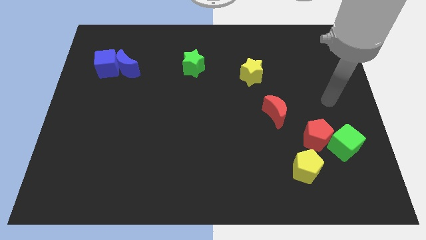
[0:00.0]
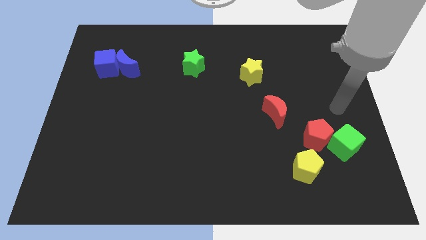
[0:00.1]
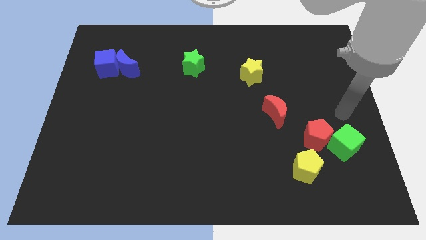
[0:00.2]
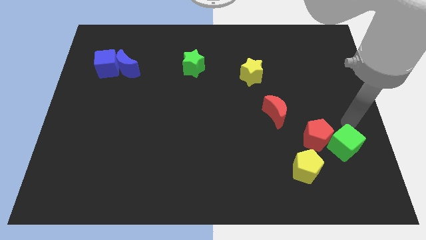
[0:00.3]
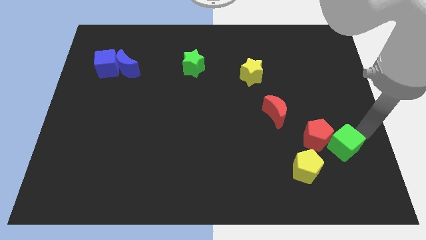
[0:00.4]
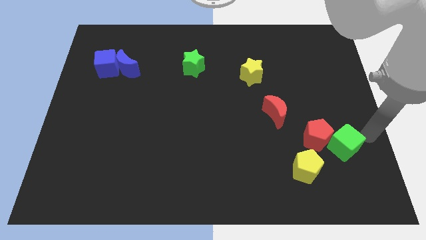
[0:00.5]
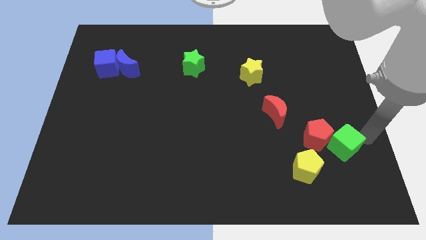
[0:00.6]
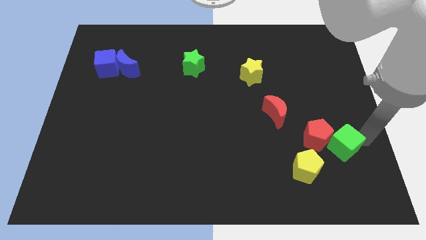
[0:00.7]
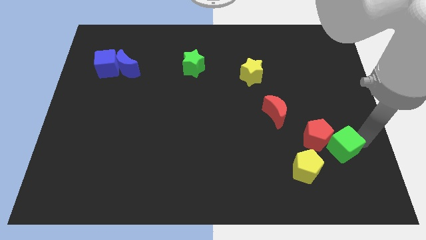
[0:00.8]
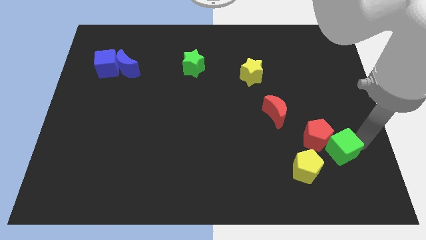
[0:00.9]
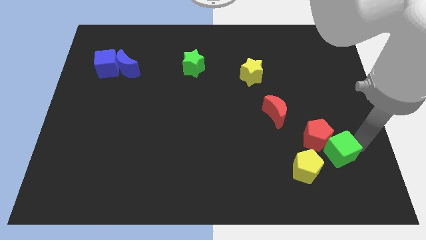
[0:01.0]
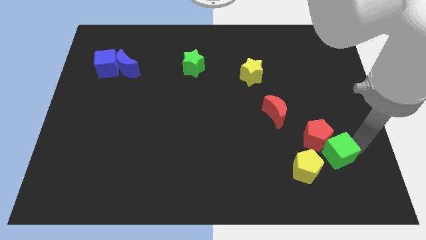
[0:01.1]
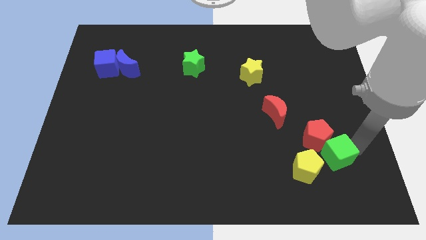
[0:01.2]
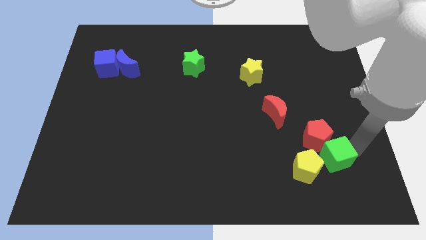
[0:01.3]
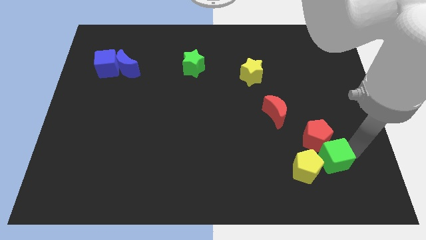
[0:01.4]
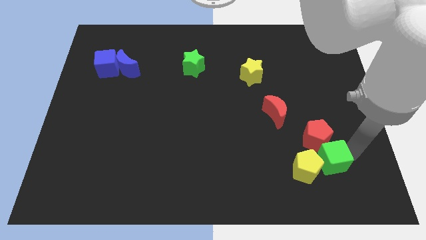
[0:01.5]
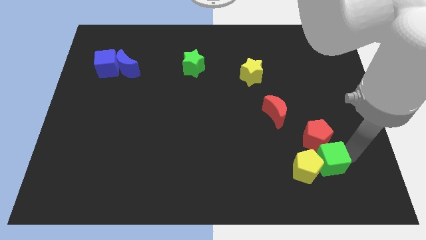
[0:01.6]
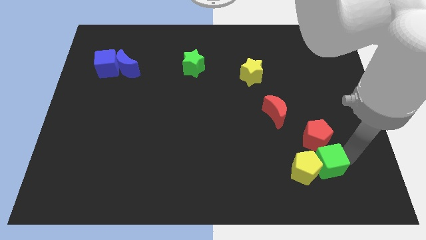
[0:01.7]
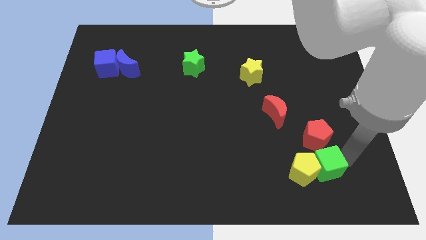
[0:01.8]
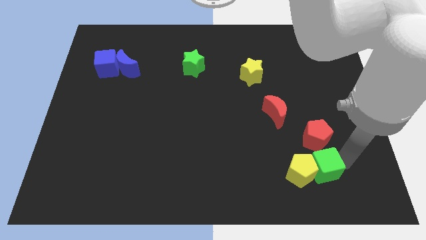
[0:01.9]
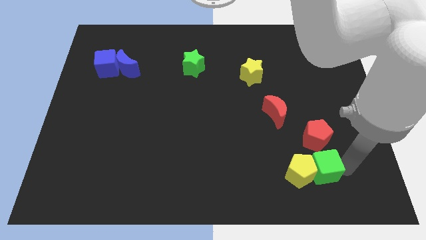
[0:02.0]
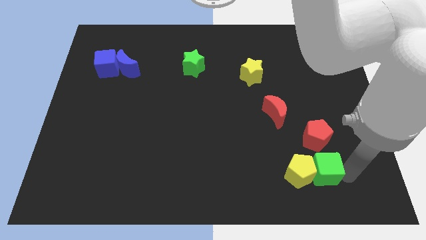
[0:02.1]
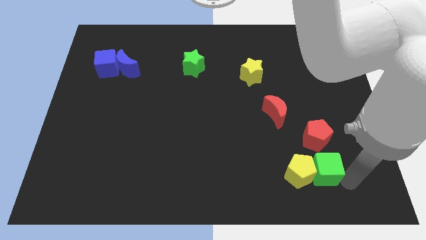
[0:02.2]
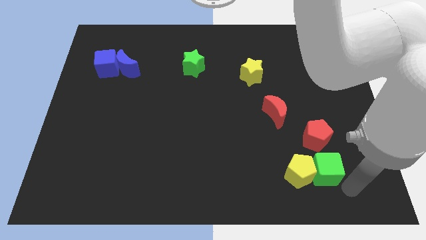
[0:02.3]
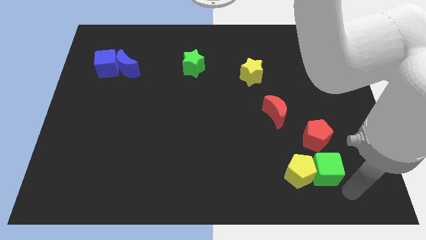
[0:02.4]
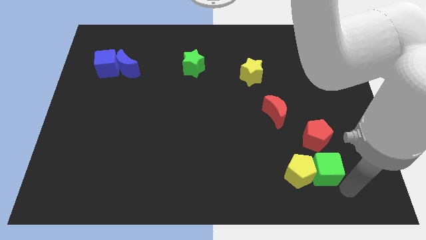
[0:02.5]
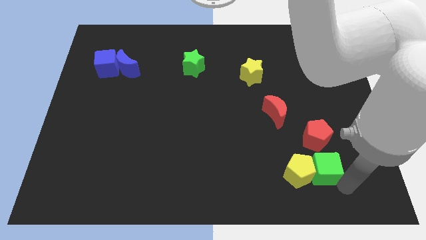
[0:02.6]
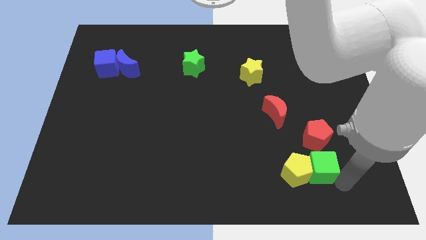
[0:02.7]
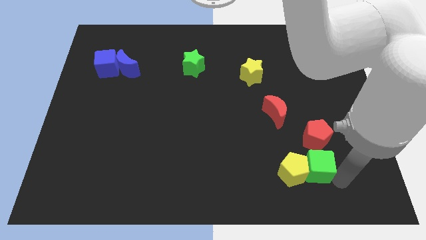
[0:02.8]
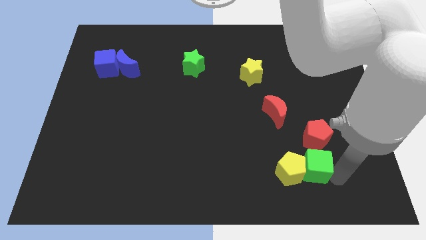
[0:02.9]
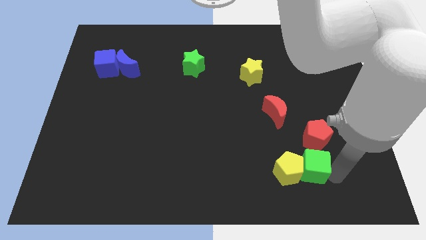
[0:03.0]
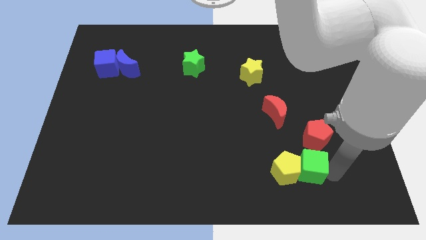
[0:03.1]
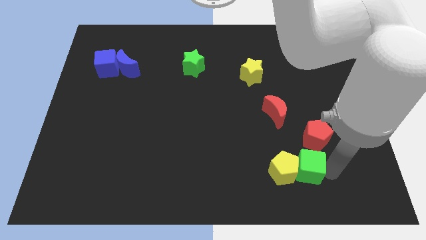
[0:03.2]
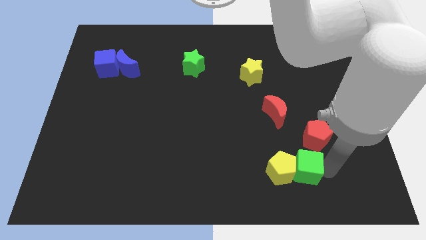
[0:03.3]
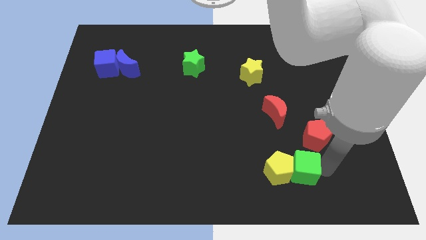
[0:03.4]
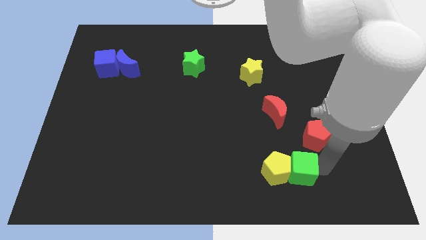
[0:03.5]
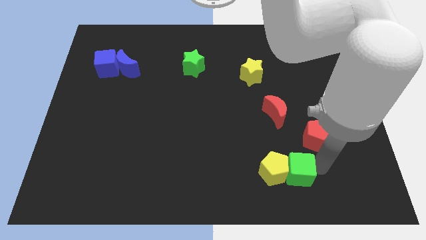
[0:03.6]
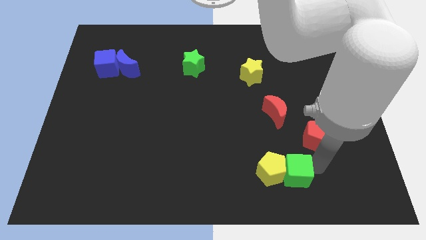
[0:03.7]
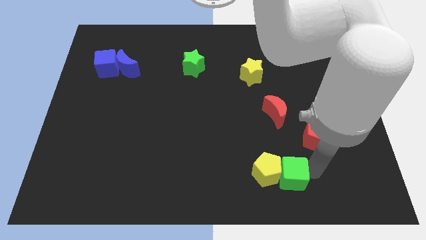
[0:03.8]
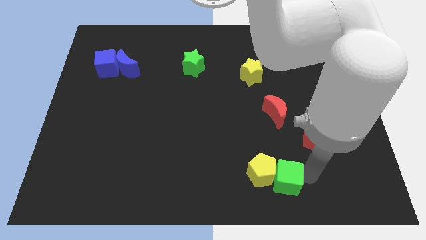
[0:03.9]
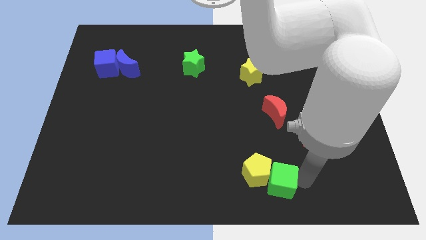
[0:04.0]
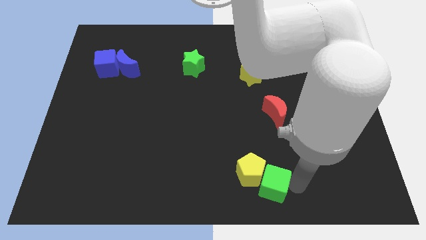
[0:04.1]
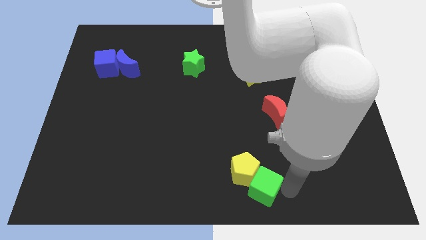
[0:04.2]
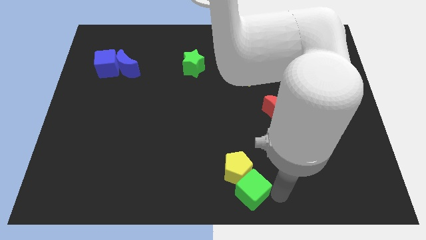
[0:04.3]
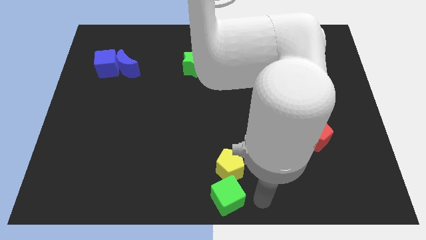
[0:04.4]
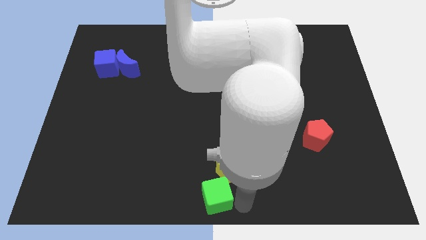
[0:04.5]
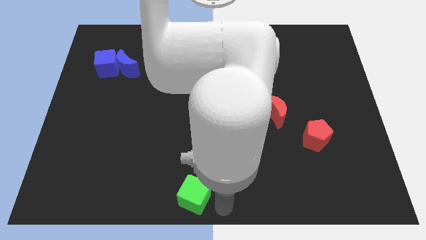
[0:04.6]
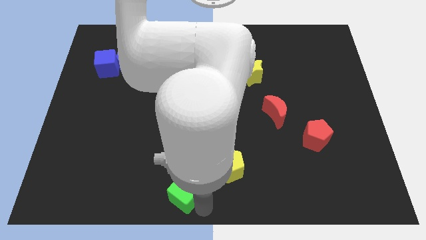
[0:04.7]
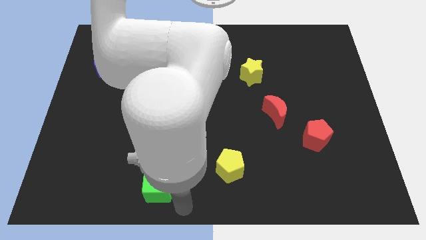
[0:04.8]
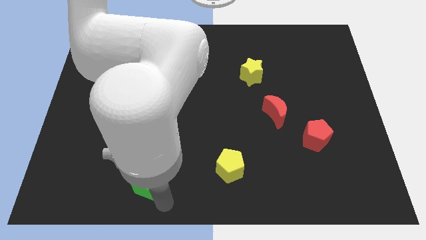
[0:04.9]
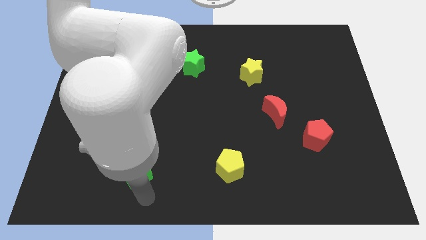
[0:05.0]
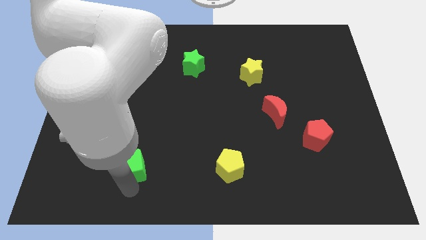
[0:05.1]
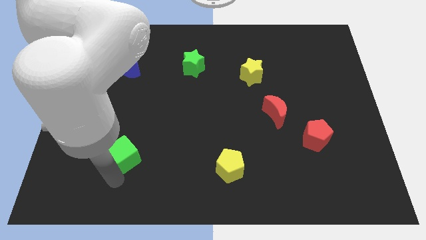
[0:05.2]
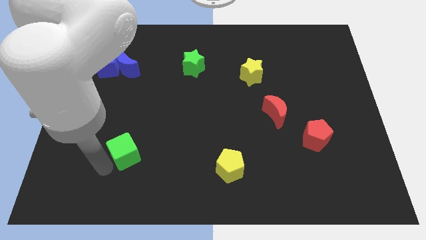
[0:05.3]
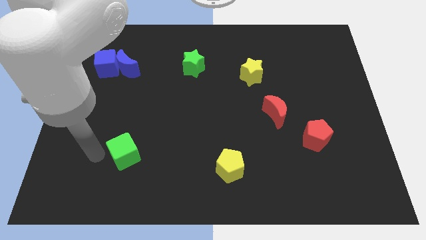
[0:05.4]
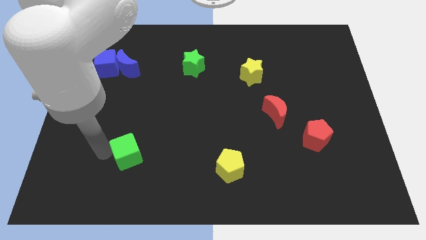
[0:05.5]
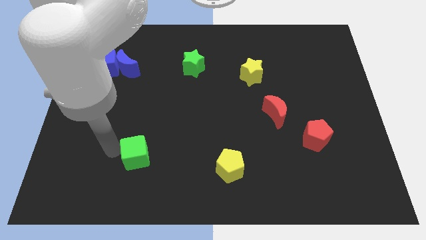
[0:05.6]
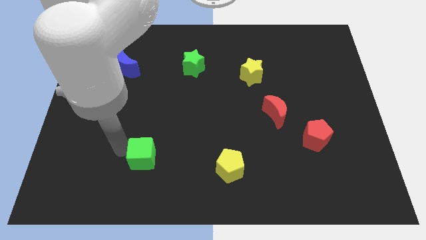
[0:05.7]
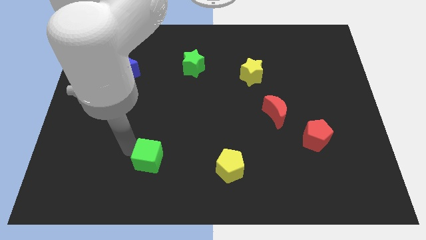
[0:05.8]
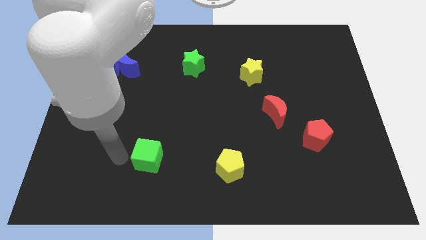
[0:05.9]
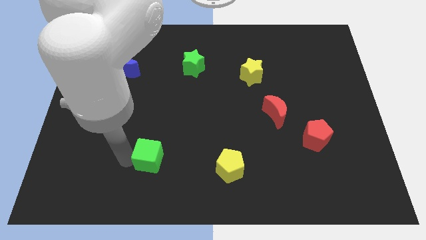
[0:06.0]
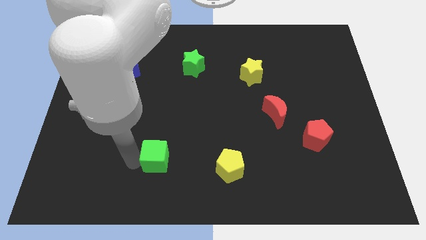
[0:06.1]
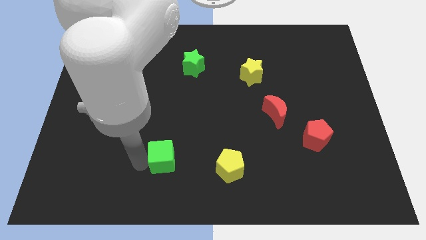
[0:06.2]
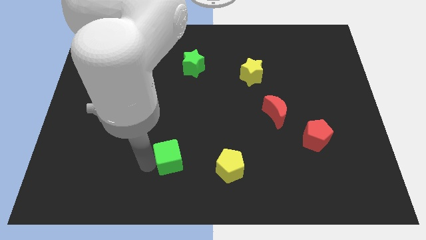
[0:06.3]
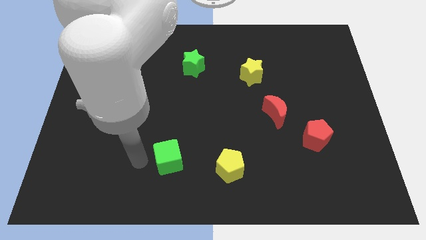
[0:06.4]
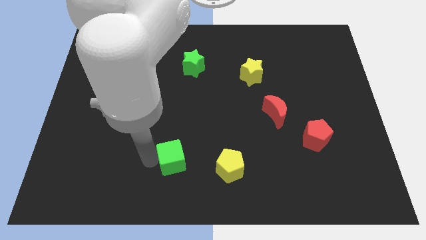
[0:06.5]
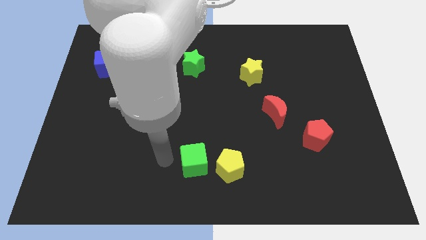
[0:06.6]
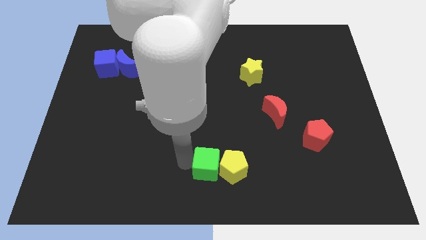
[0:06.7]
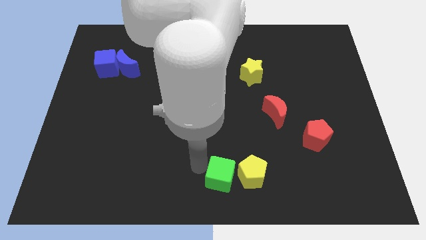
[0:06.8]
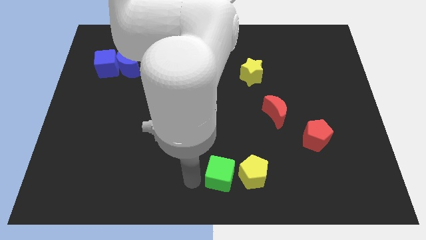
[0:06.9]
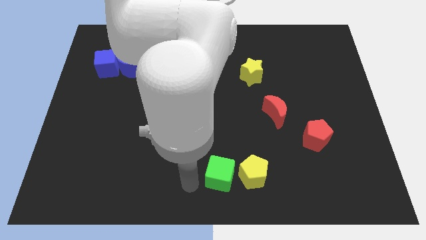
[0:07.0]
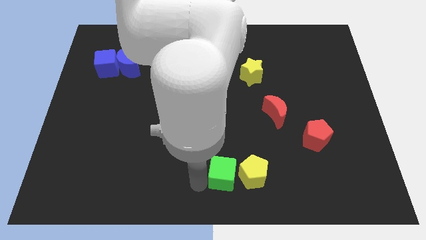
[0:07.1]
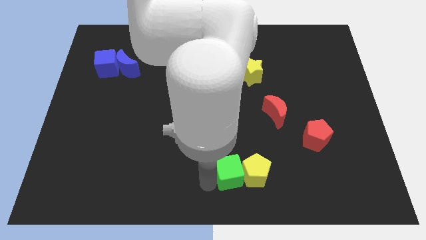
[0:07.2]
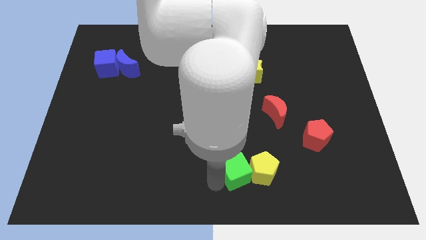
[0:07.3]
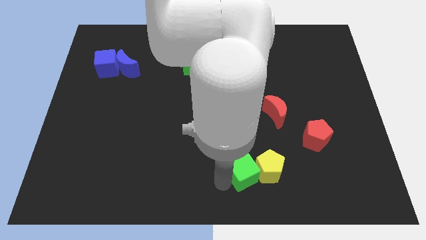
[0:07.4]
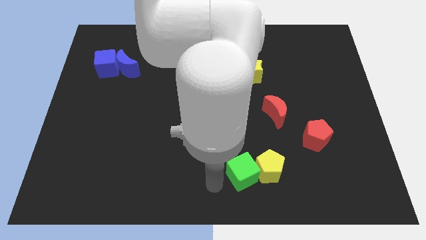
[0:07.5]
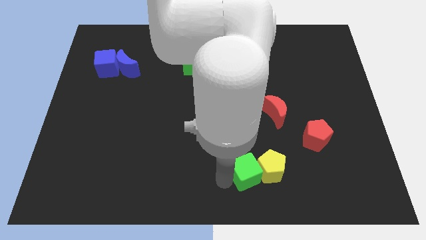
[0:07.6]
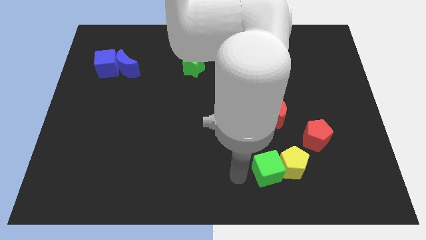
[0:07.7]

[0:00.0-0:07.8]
put the green cube just left of the yellow pentagon

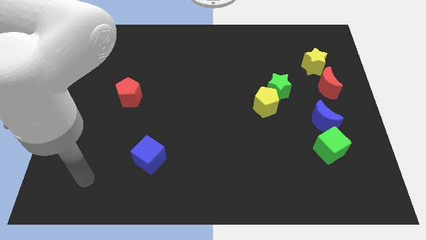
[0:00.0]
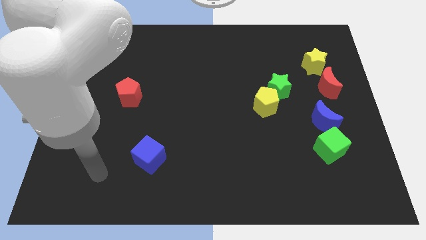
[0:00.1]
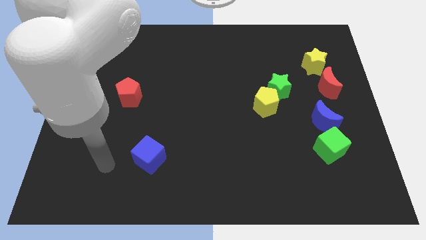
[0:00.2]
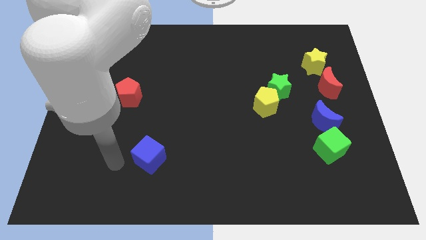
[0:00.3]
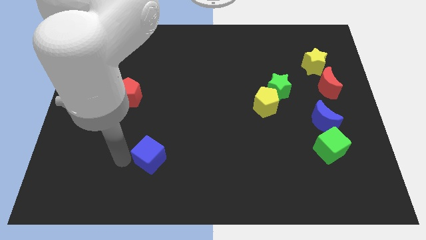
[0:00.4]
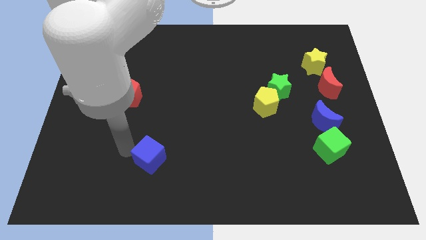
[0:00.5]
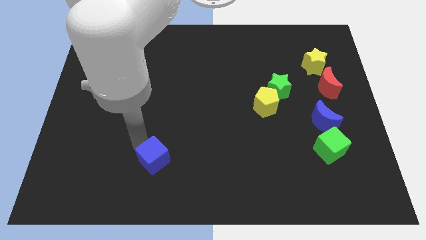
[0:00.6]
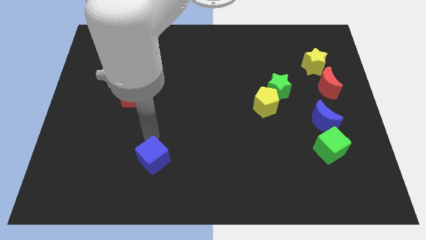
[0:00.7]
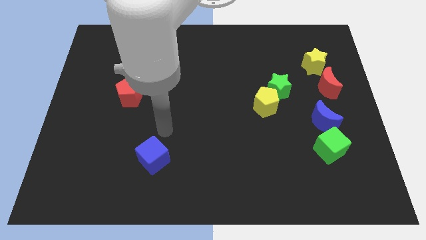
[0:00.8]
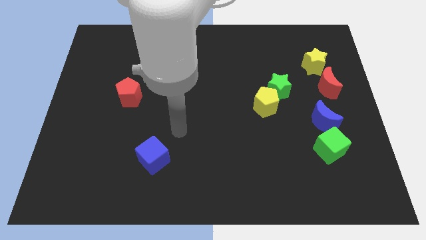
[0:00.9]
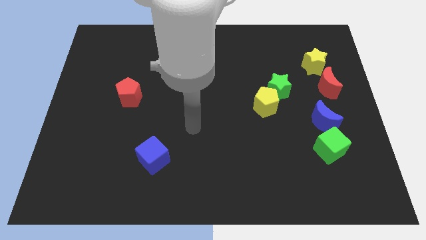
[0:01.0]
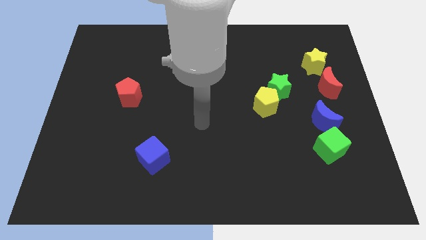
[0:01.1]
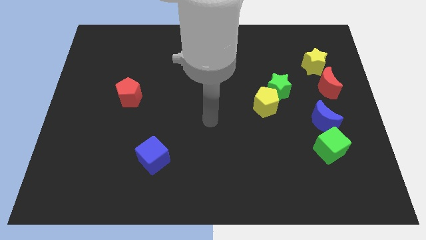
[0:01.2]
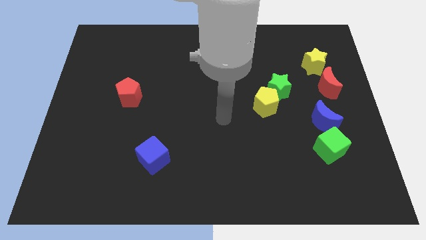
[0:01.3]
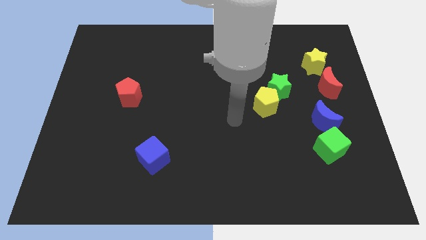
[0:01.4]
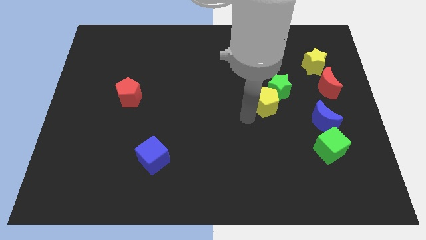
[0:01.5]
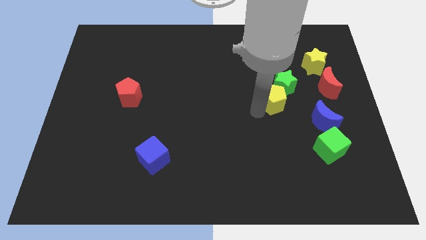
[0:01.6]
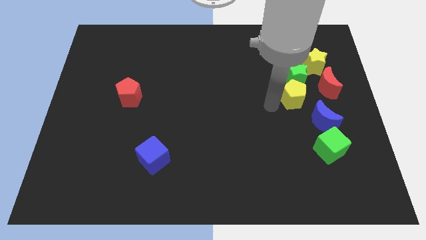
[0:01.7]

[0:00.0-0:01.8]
push the green star to the top left of the red moon
